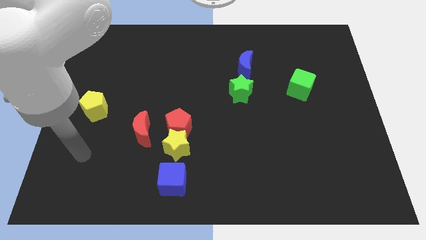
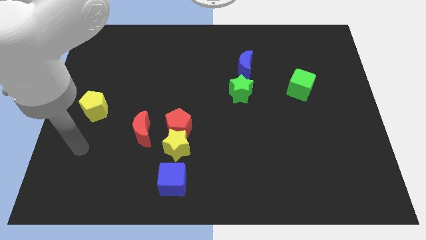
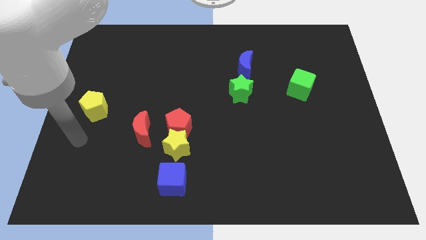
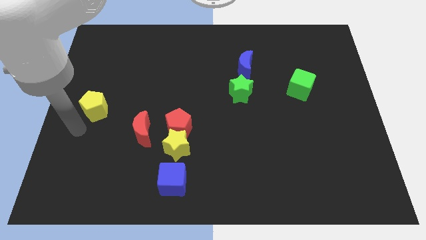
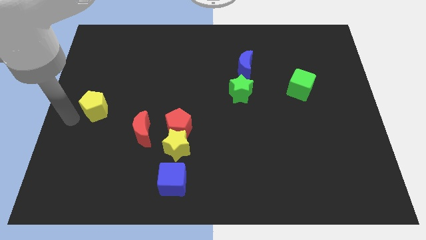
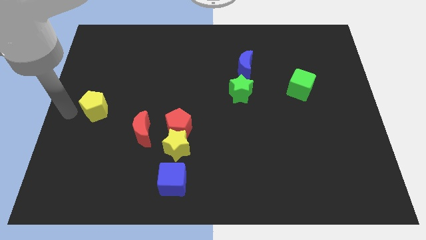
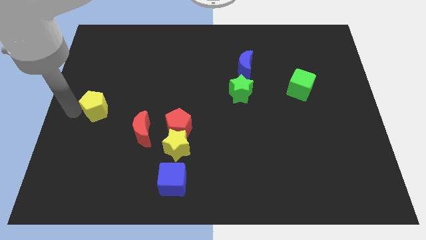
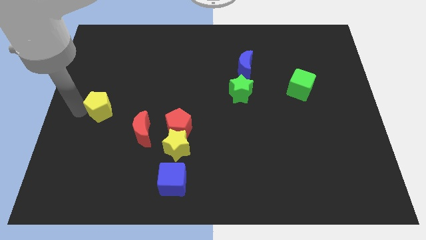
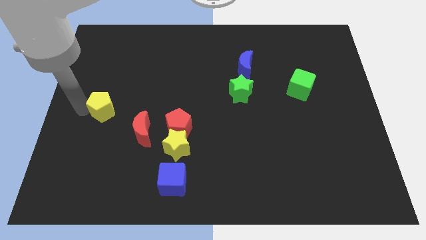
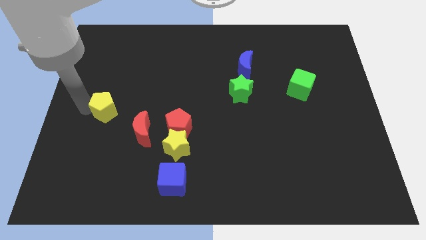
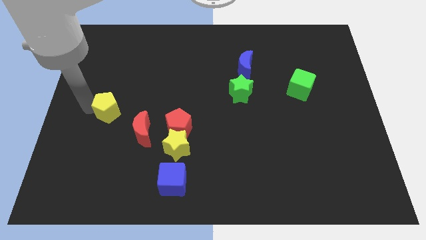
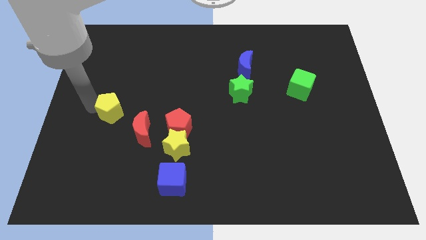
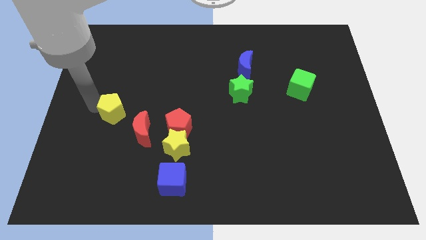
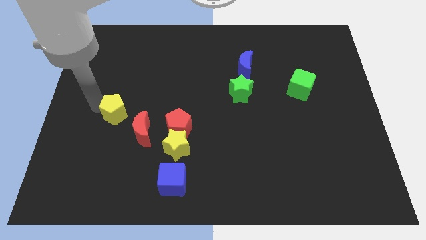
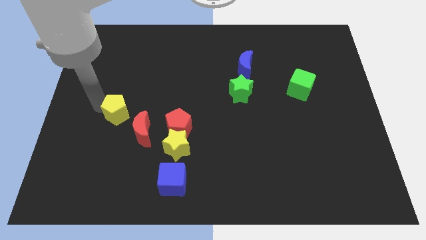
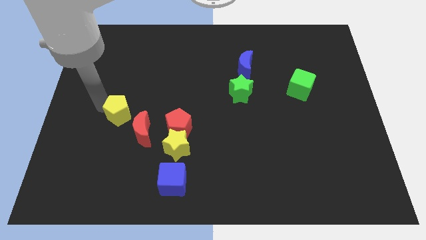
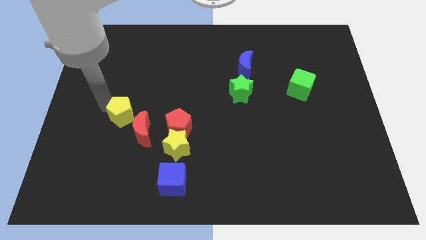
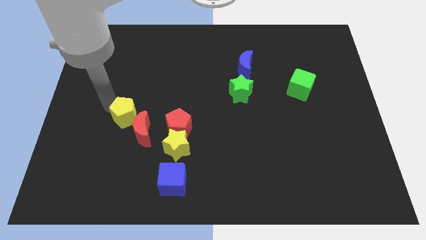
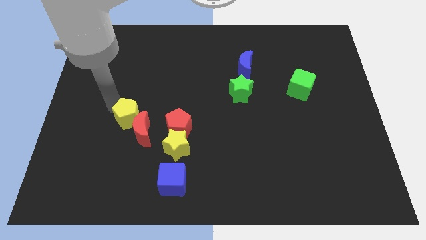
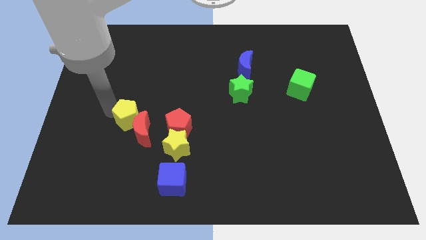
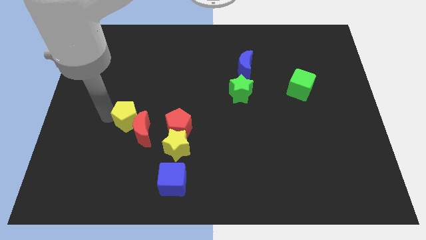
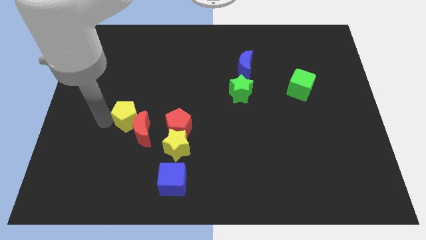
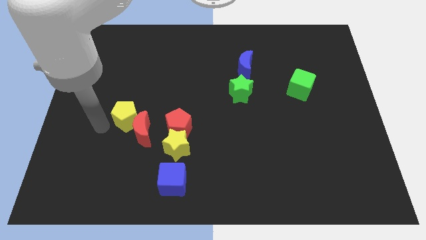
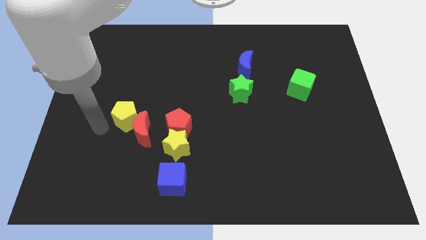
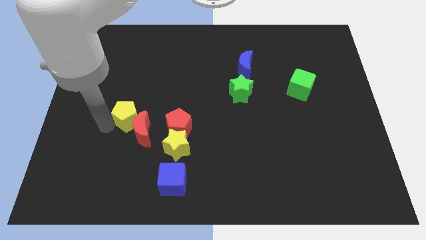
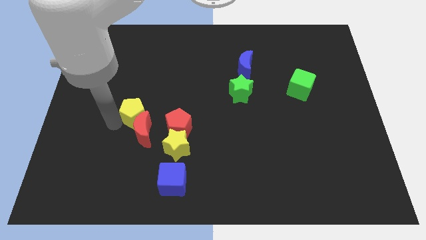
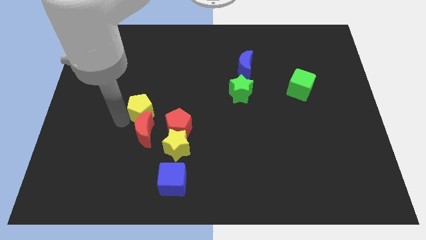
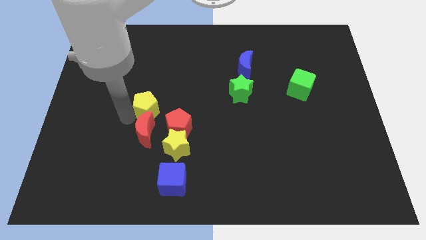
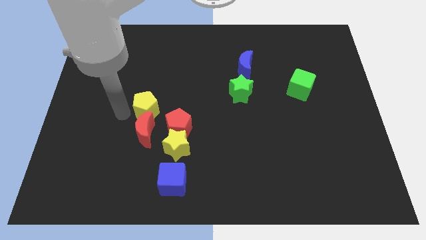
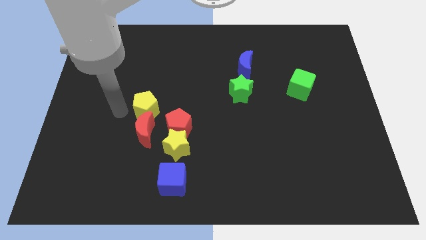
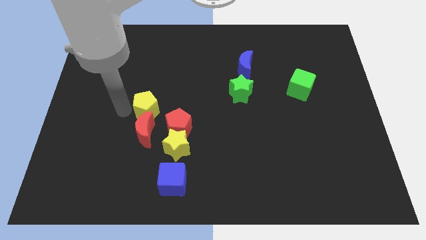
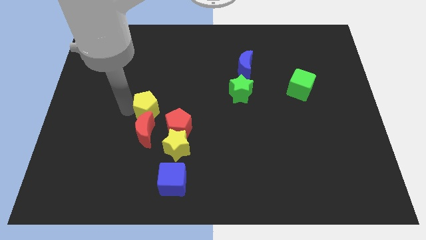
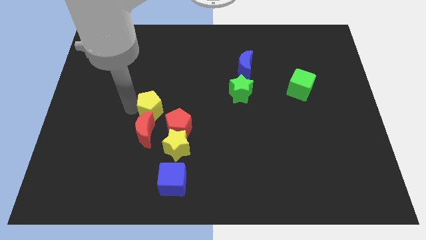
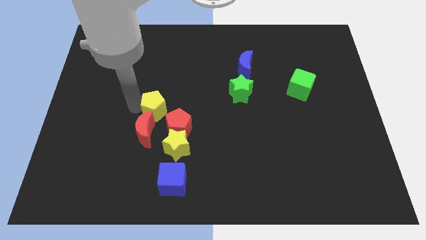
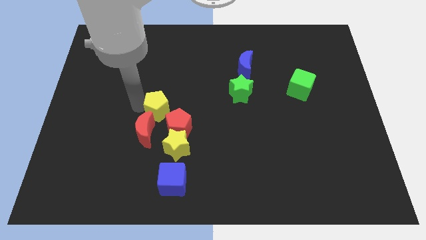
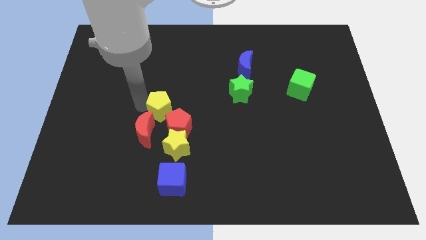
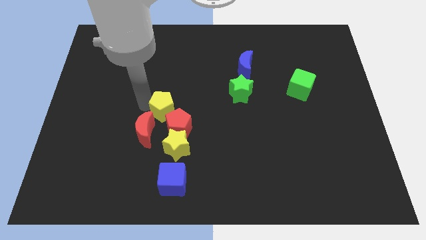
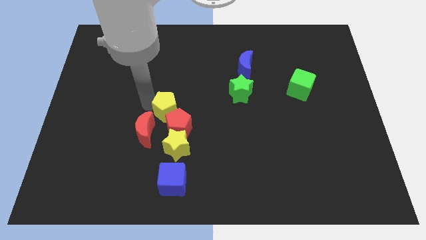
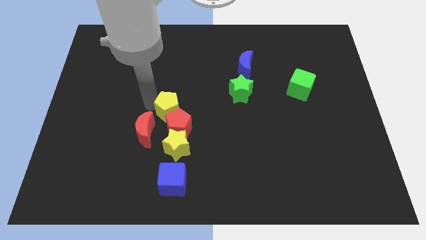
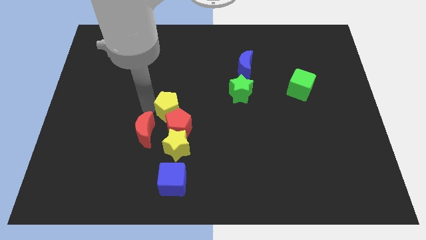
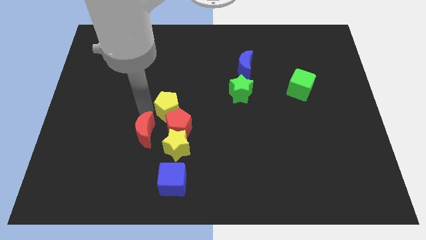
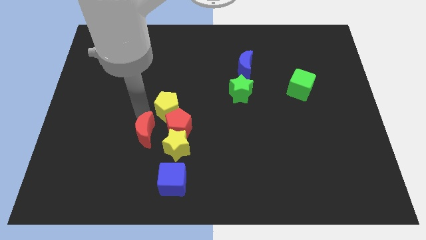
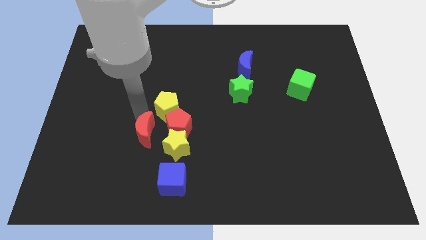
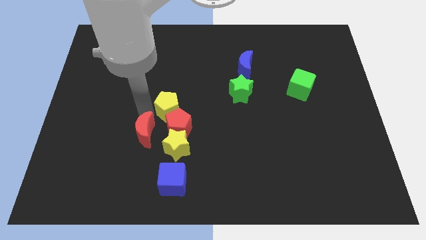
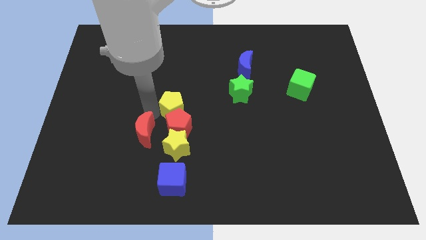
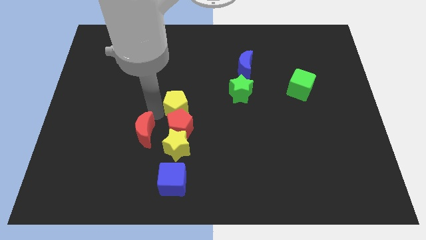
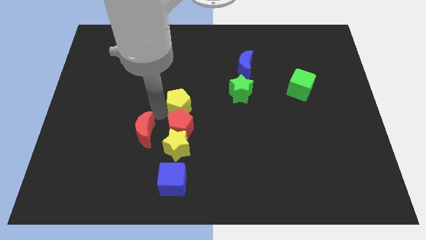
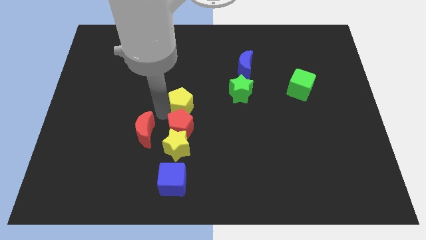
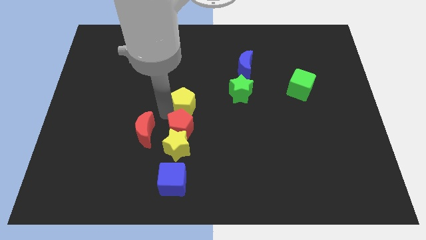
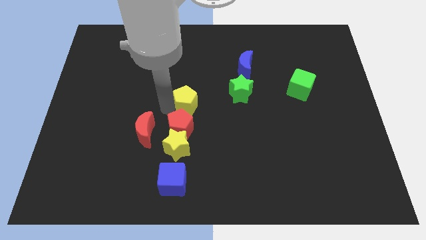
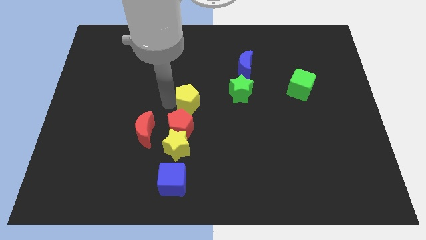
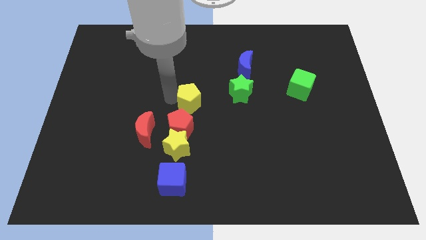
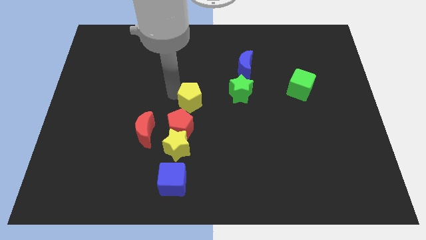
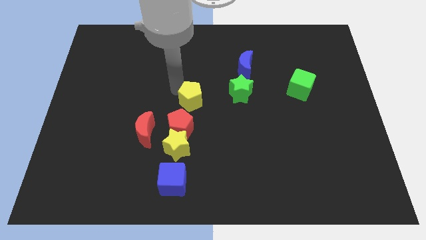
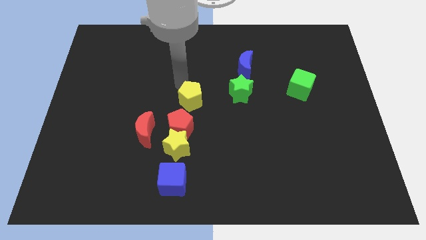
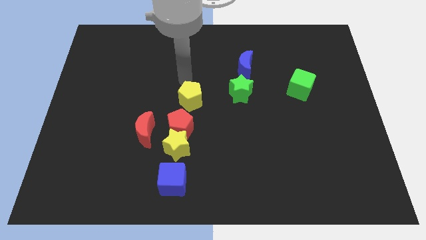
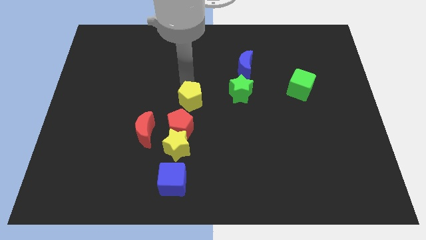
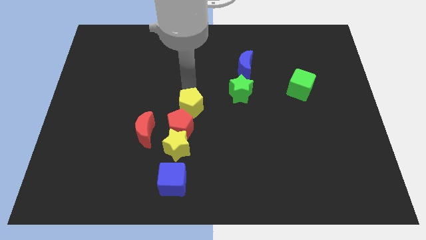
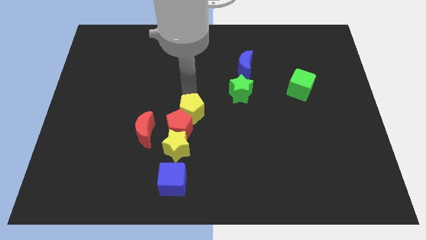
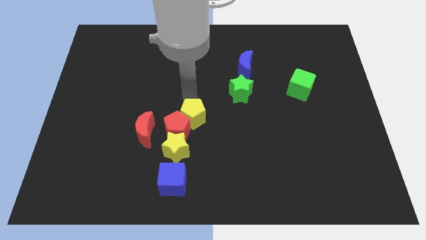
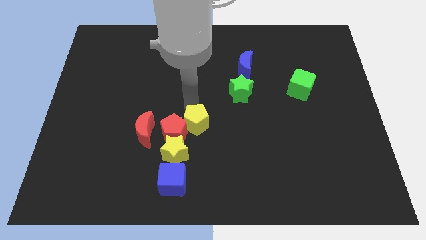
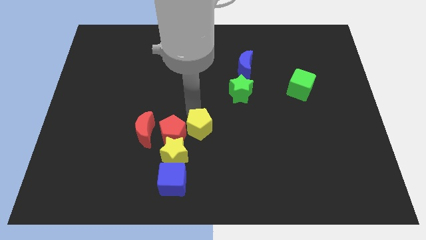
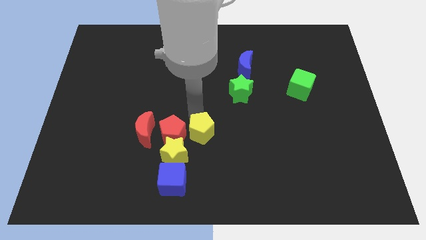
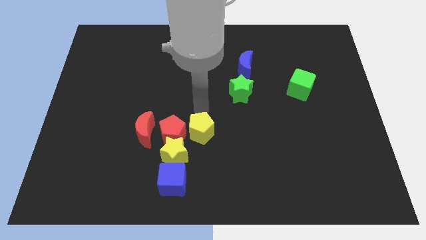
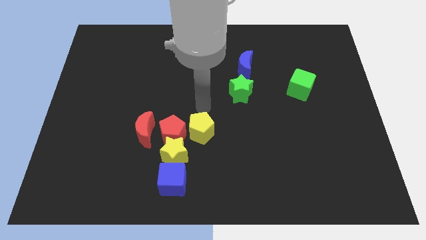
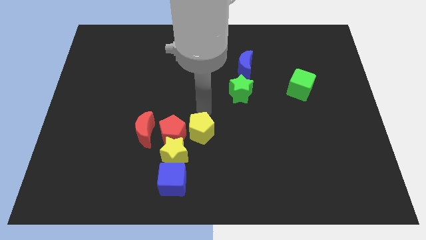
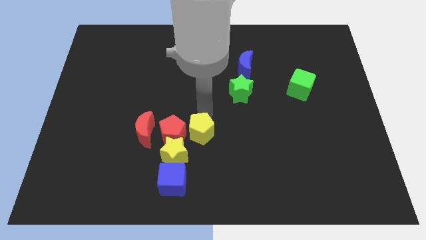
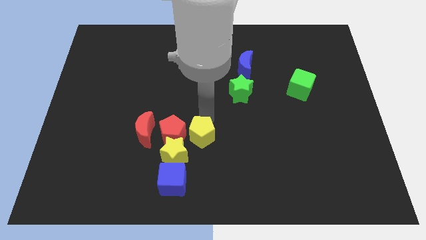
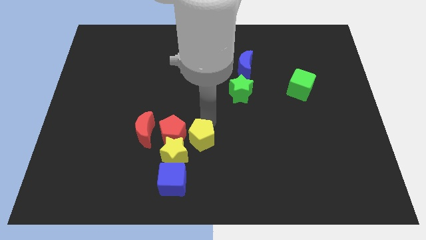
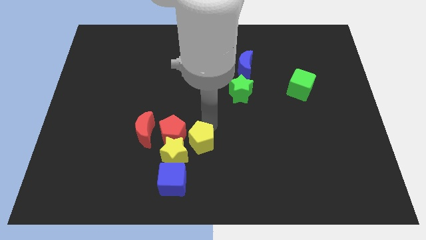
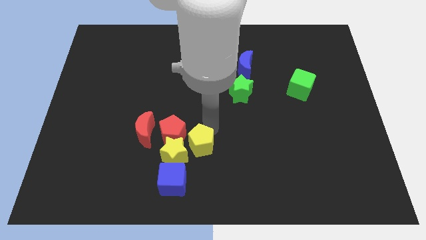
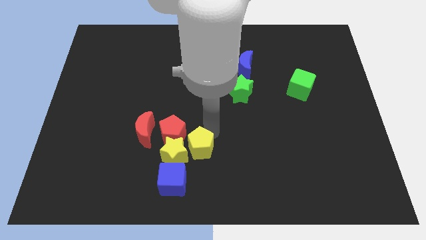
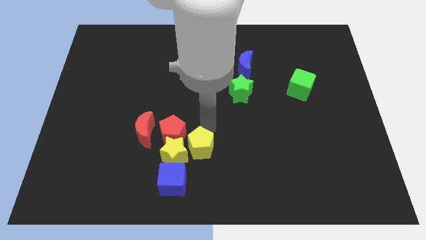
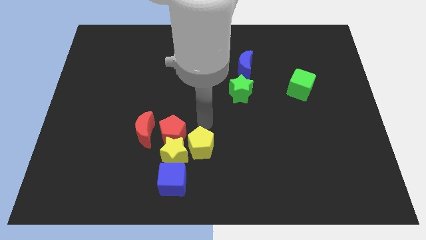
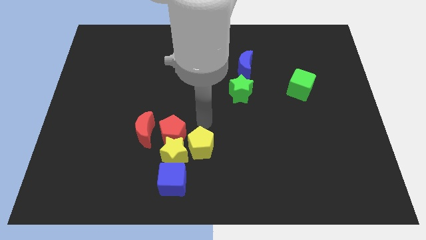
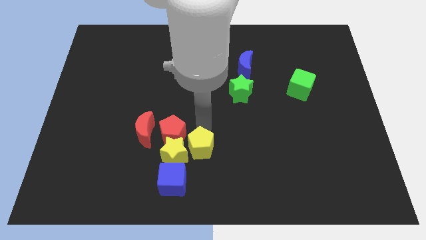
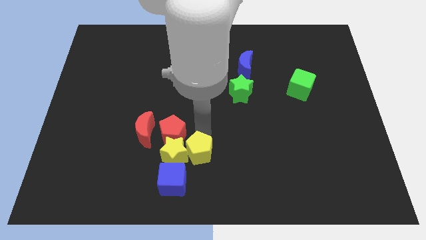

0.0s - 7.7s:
slide the yellow pentagon to the bottom right side of the yellow star
